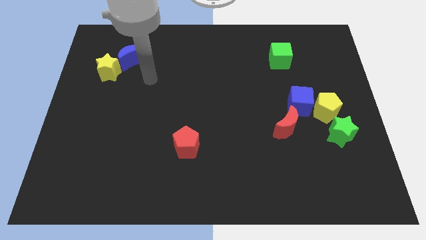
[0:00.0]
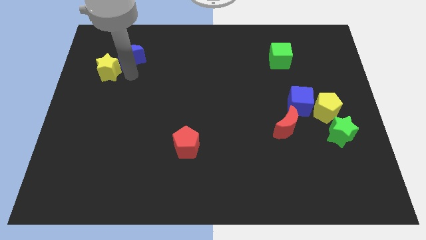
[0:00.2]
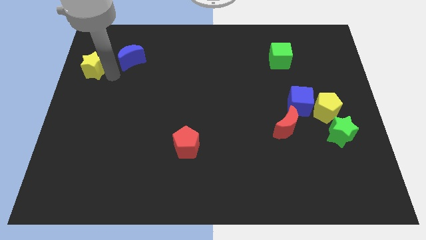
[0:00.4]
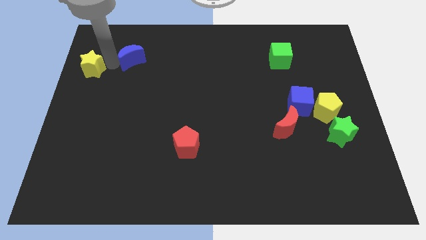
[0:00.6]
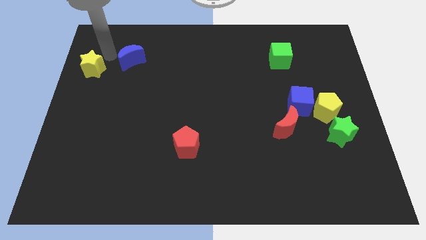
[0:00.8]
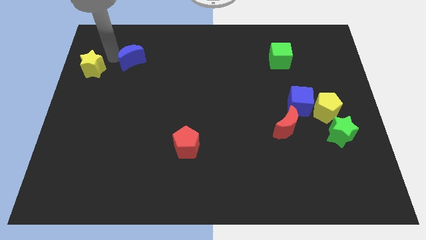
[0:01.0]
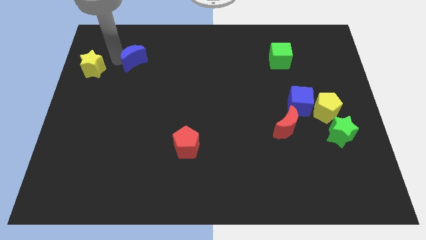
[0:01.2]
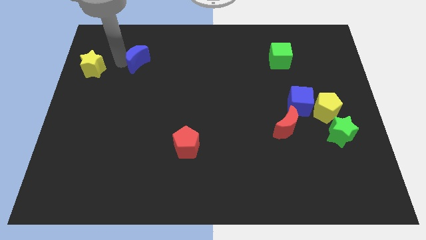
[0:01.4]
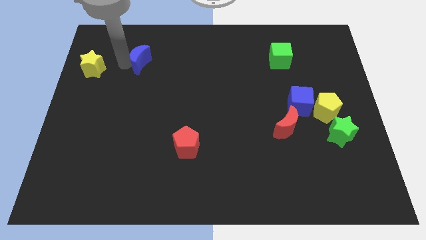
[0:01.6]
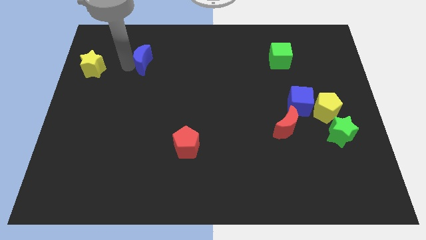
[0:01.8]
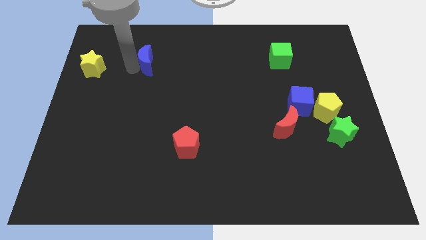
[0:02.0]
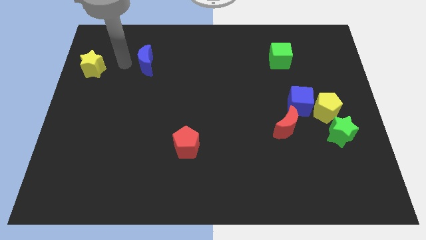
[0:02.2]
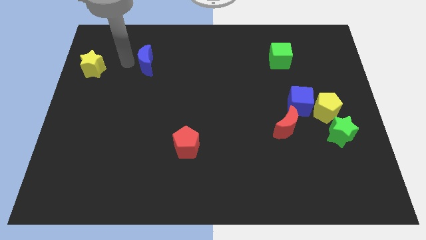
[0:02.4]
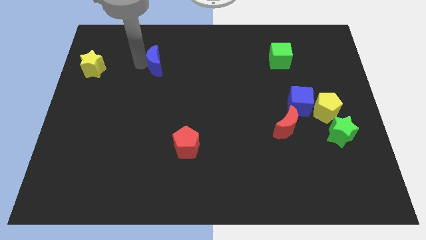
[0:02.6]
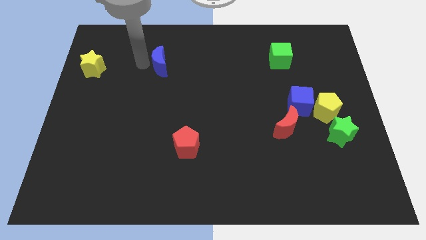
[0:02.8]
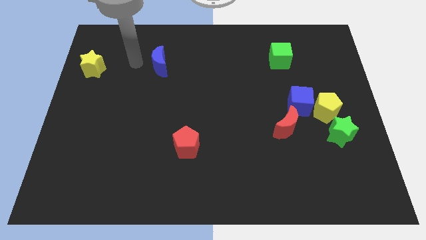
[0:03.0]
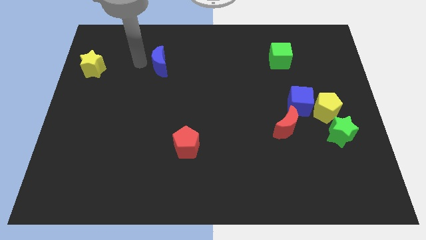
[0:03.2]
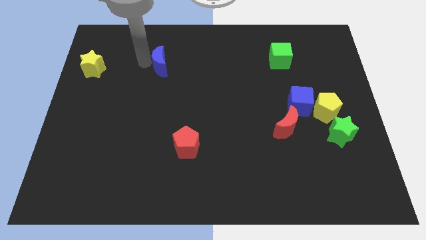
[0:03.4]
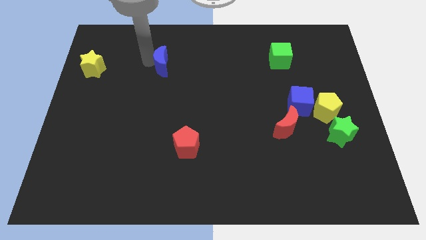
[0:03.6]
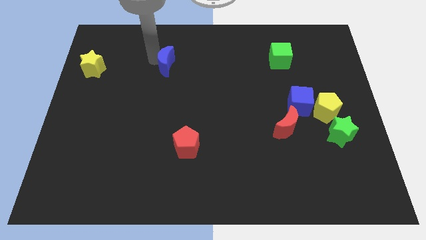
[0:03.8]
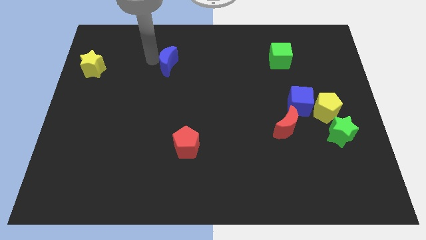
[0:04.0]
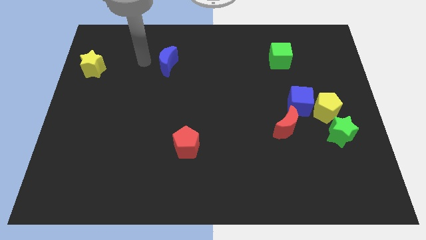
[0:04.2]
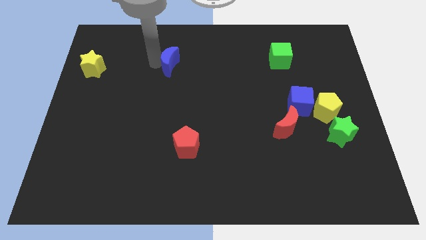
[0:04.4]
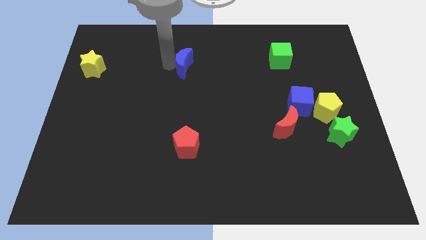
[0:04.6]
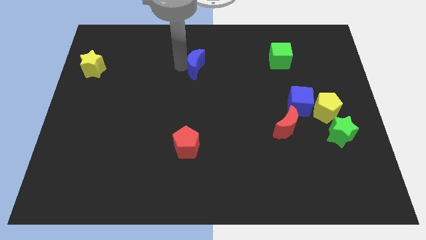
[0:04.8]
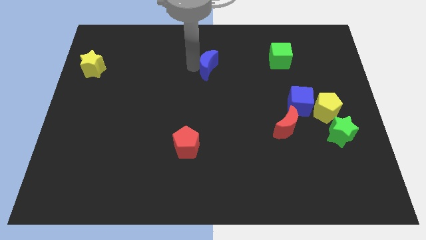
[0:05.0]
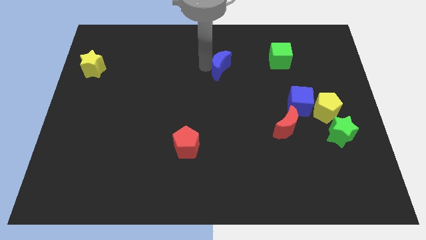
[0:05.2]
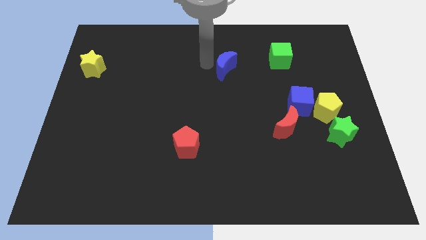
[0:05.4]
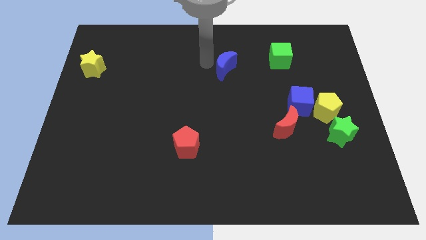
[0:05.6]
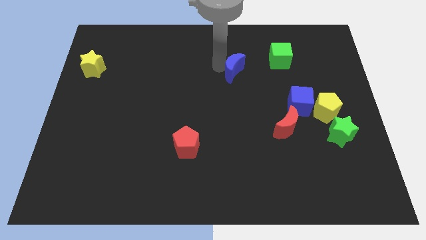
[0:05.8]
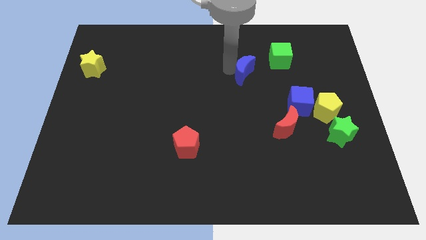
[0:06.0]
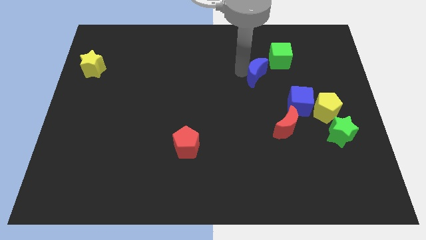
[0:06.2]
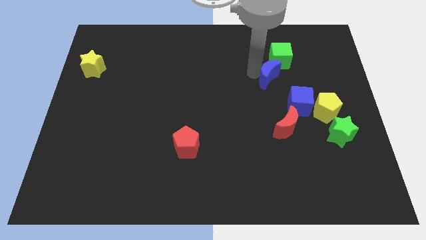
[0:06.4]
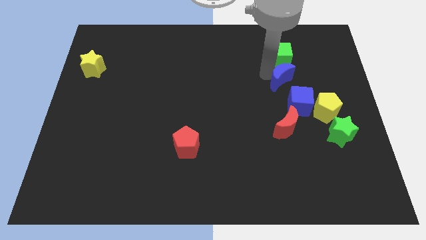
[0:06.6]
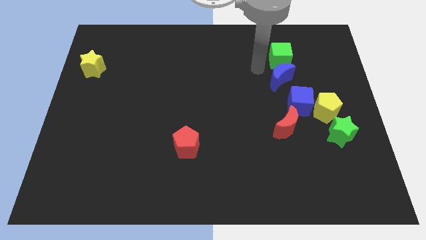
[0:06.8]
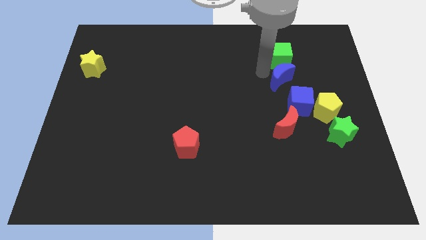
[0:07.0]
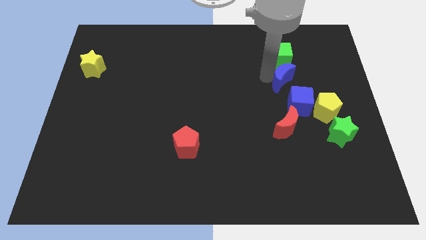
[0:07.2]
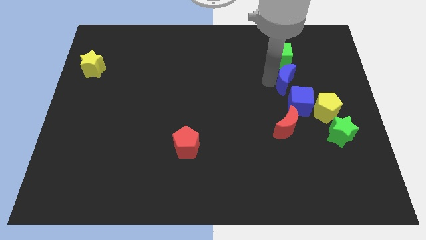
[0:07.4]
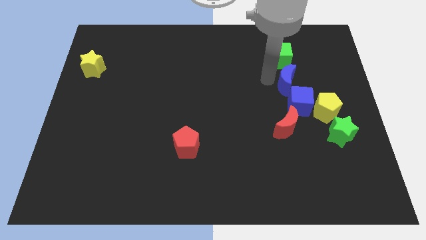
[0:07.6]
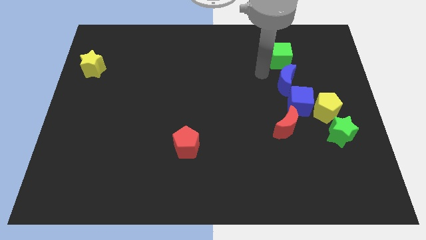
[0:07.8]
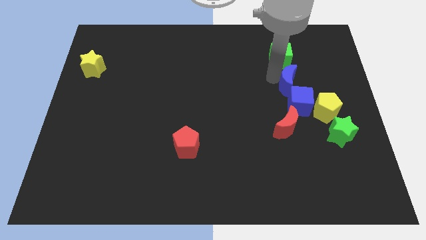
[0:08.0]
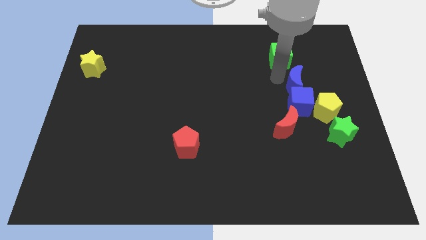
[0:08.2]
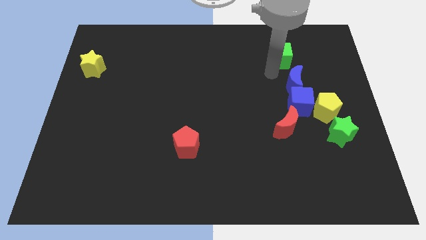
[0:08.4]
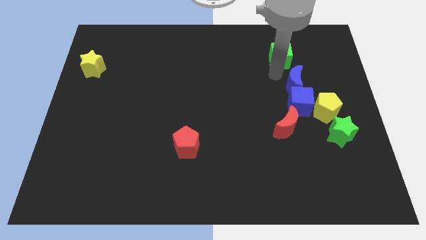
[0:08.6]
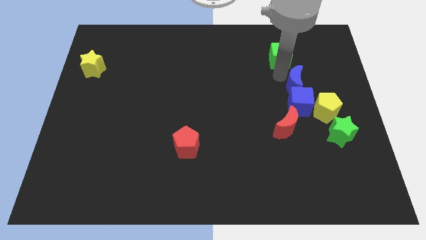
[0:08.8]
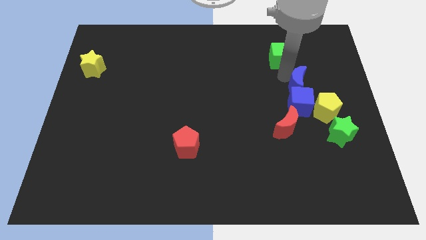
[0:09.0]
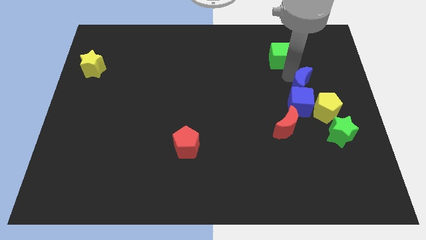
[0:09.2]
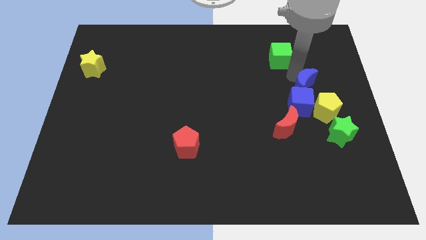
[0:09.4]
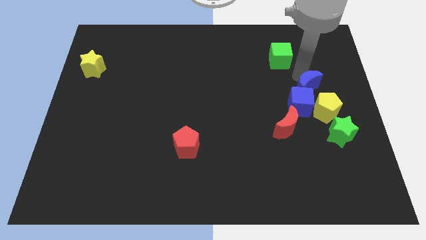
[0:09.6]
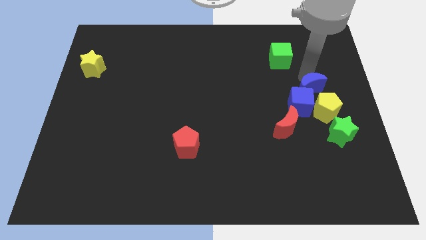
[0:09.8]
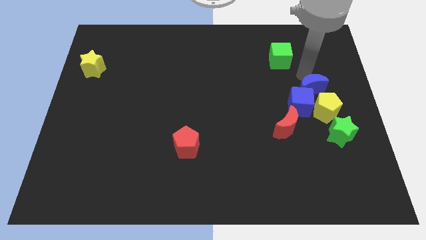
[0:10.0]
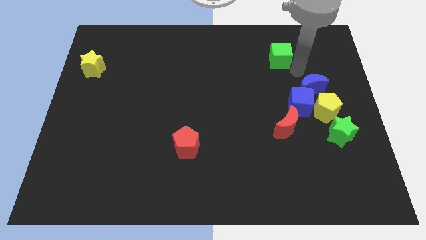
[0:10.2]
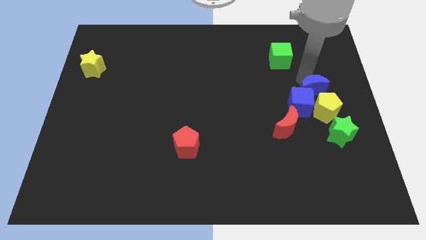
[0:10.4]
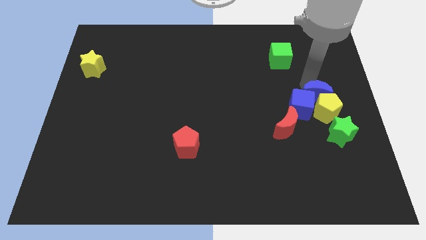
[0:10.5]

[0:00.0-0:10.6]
push the blue moon to the yellow pentagon

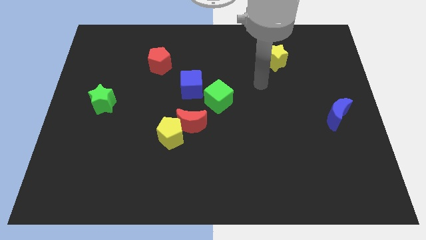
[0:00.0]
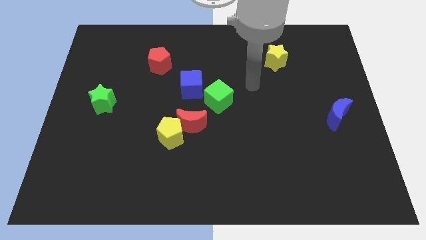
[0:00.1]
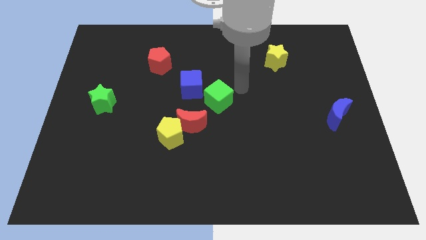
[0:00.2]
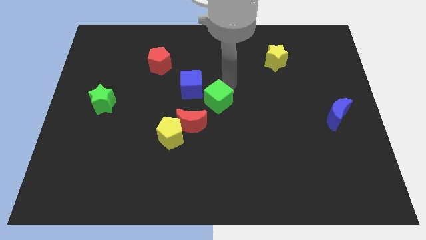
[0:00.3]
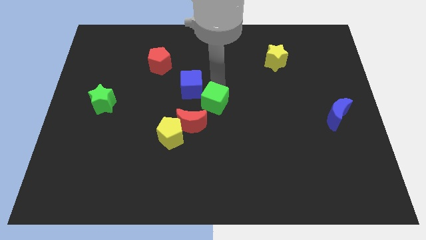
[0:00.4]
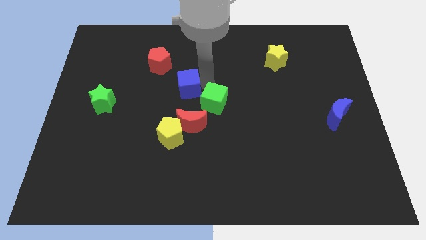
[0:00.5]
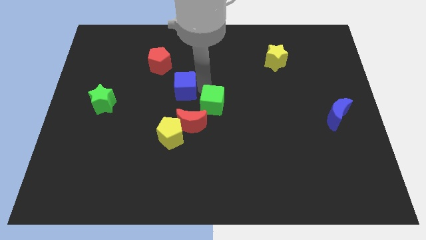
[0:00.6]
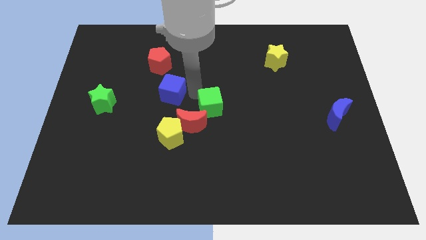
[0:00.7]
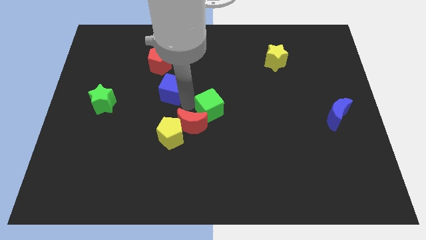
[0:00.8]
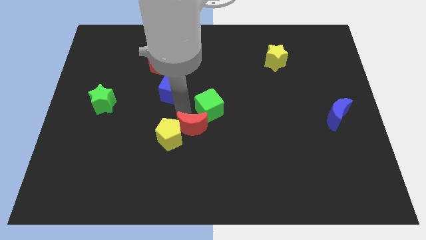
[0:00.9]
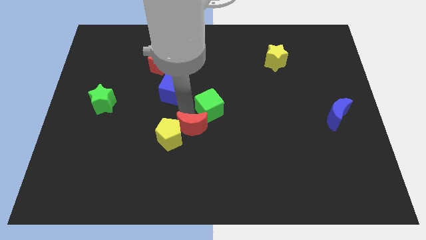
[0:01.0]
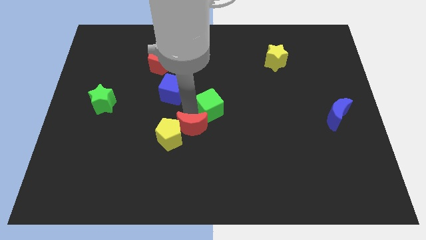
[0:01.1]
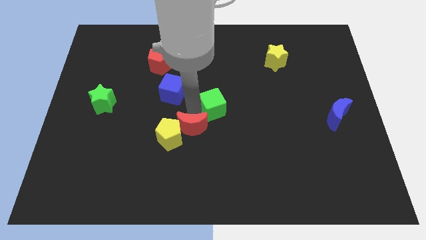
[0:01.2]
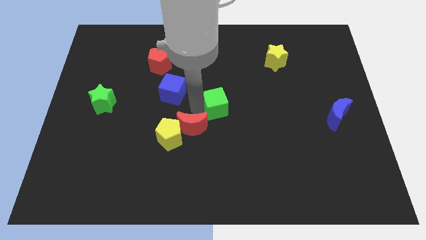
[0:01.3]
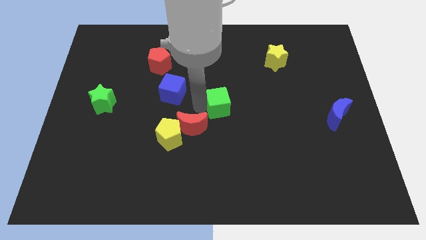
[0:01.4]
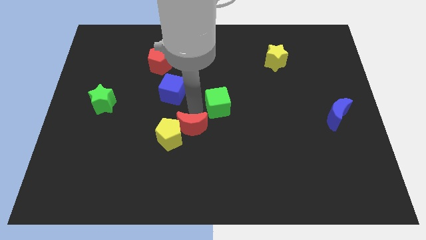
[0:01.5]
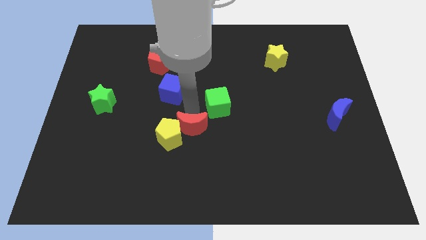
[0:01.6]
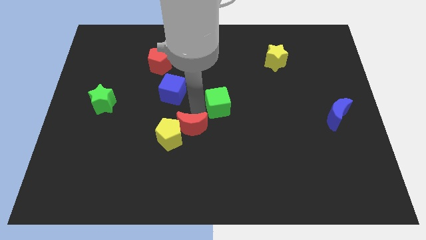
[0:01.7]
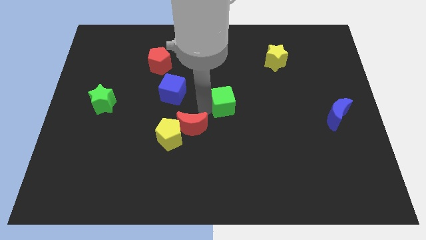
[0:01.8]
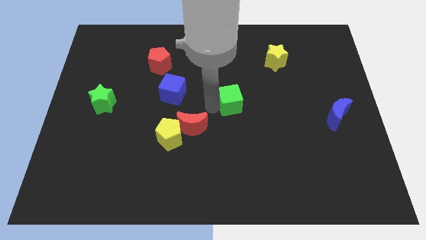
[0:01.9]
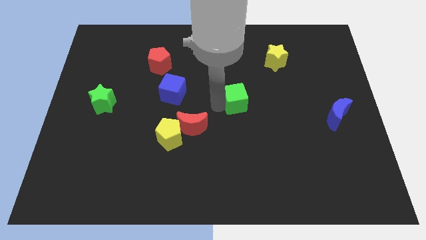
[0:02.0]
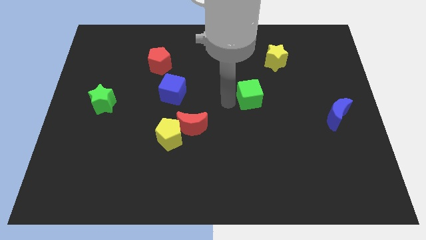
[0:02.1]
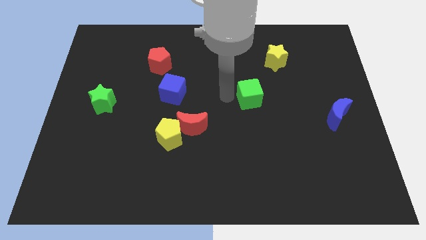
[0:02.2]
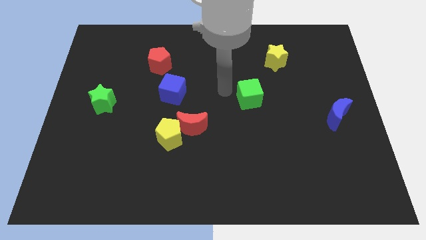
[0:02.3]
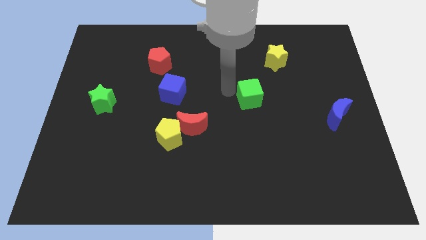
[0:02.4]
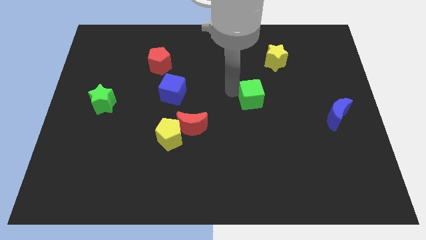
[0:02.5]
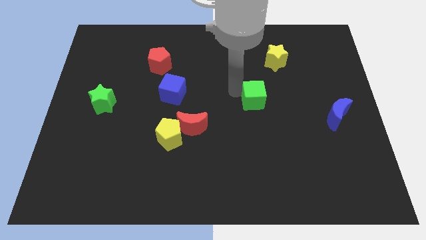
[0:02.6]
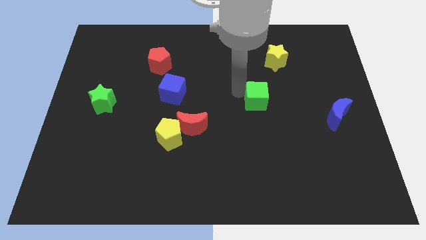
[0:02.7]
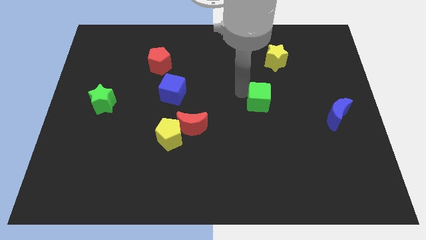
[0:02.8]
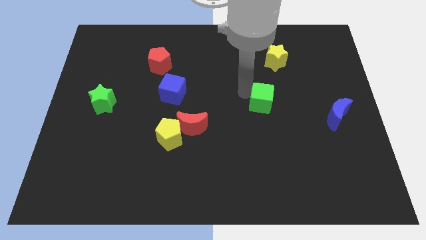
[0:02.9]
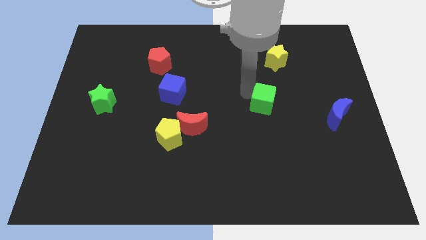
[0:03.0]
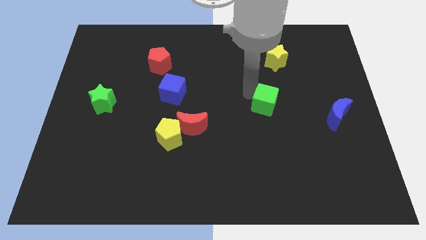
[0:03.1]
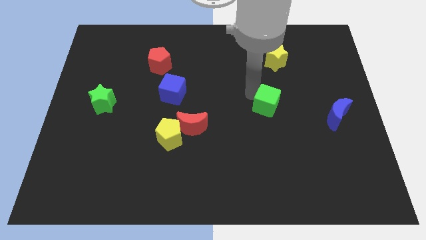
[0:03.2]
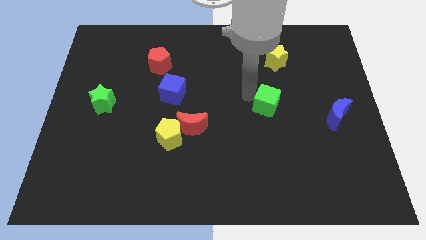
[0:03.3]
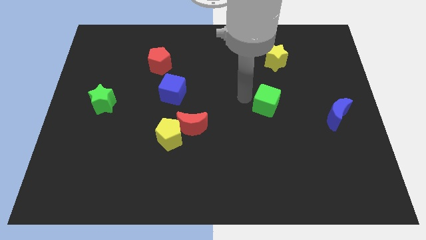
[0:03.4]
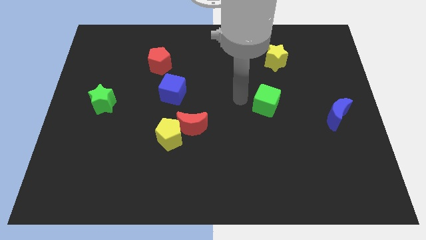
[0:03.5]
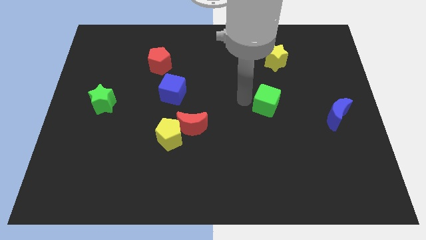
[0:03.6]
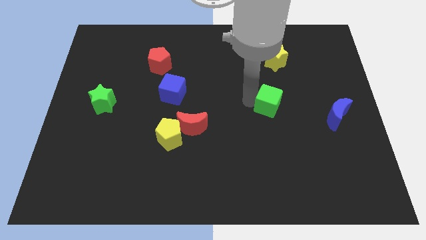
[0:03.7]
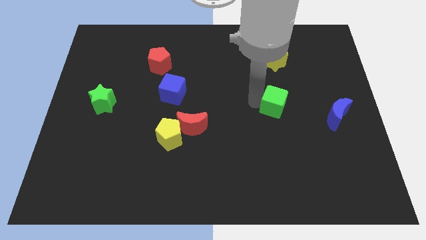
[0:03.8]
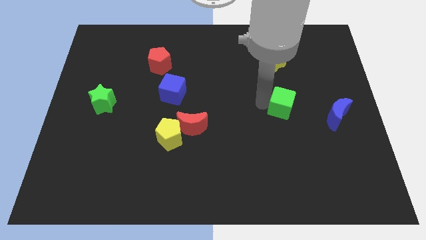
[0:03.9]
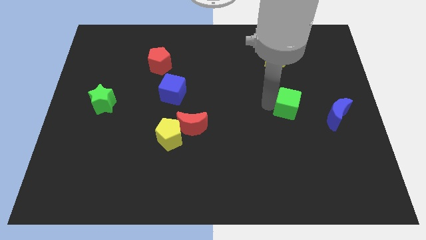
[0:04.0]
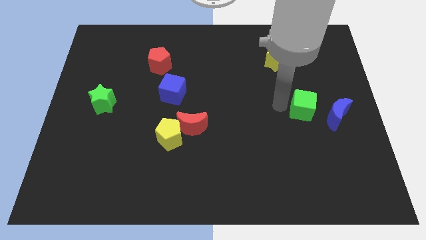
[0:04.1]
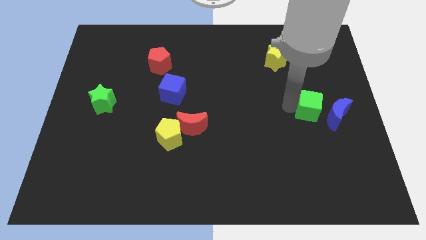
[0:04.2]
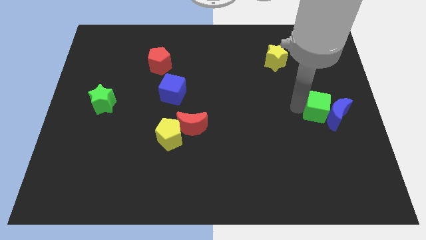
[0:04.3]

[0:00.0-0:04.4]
put the green cube to the blue moon
